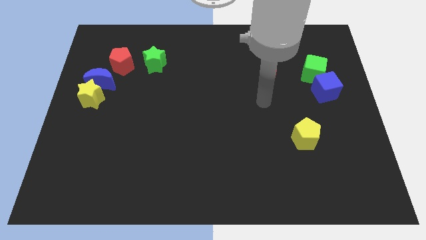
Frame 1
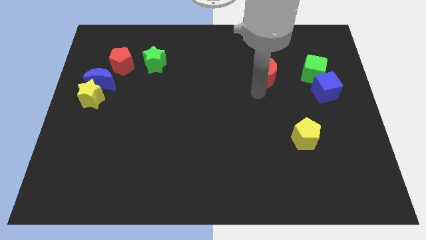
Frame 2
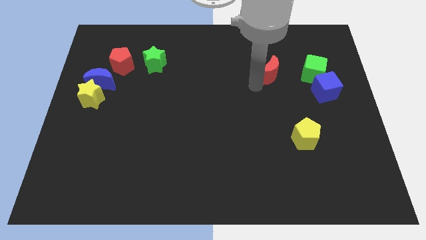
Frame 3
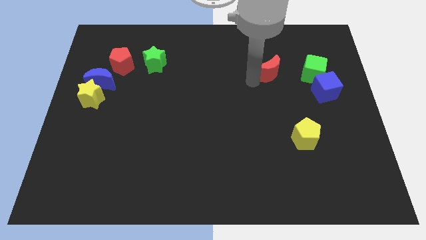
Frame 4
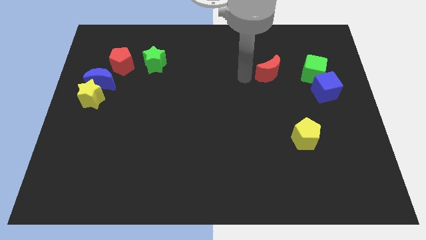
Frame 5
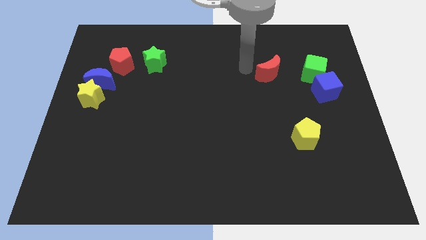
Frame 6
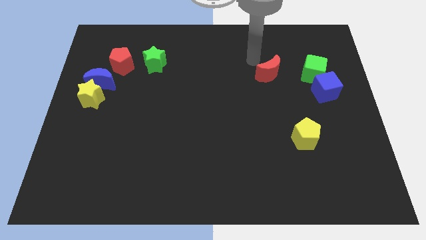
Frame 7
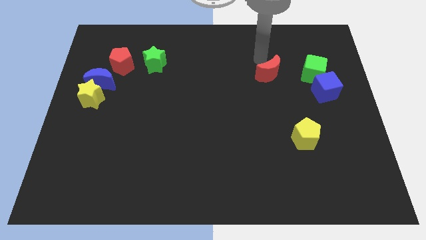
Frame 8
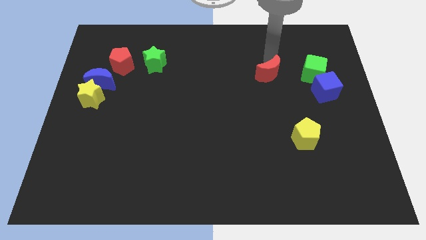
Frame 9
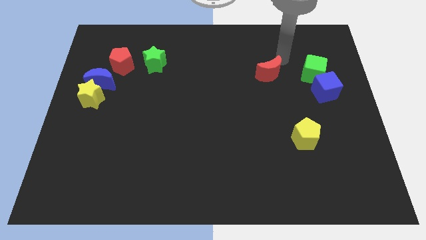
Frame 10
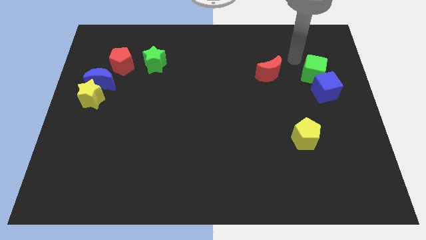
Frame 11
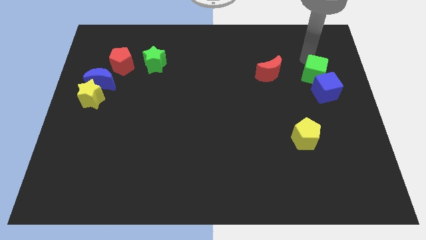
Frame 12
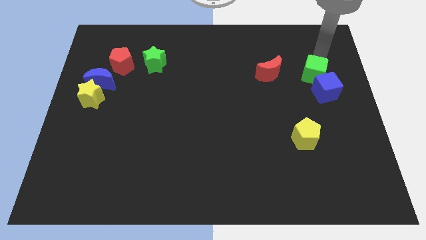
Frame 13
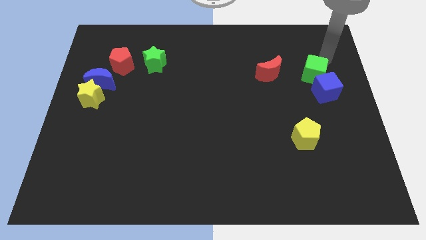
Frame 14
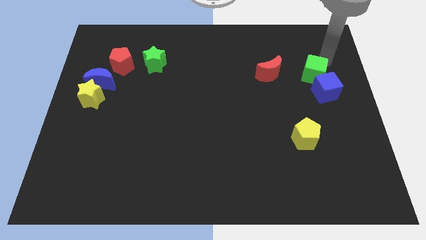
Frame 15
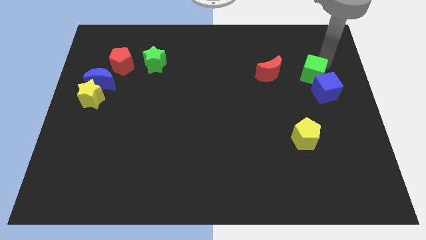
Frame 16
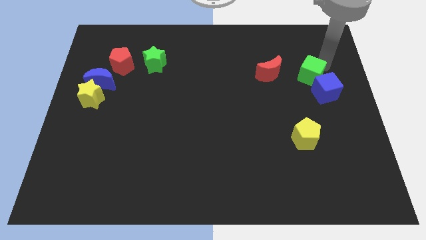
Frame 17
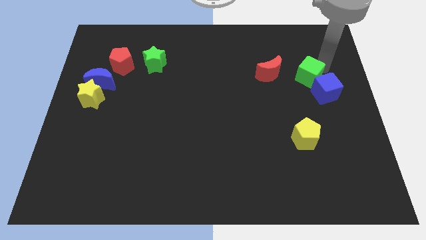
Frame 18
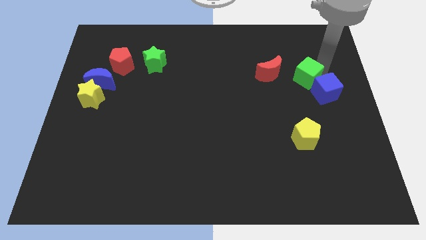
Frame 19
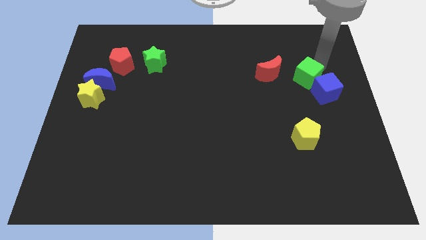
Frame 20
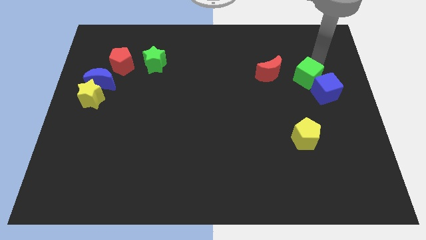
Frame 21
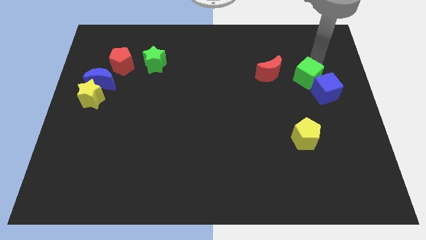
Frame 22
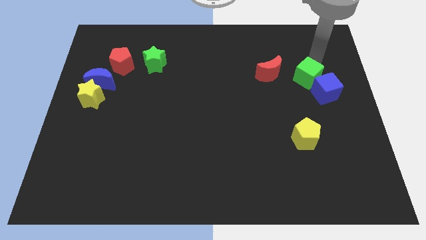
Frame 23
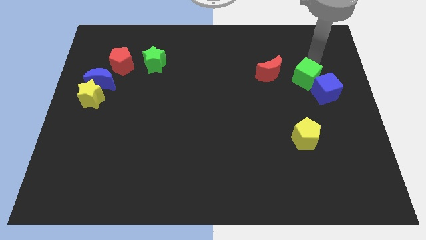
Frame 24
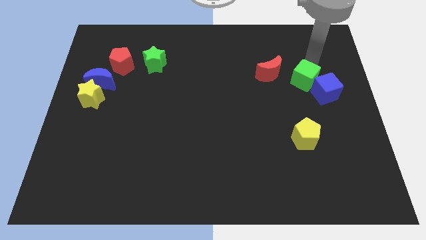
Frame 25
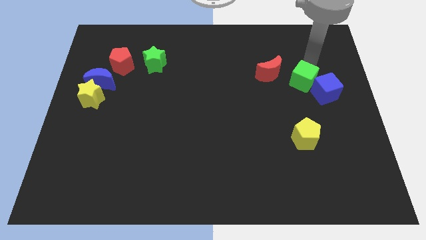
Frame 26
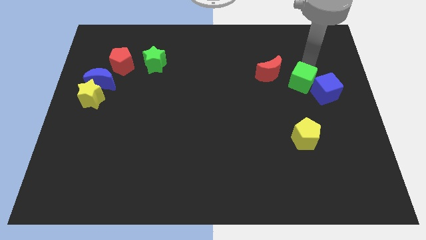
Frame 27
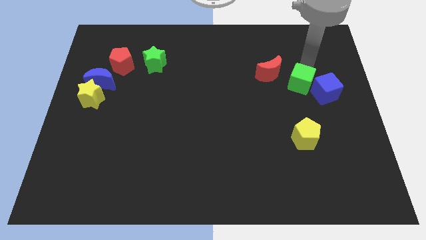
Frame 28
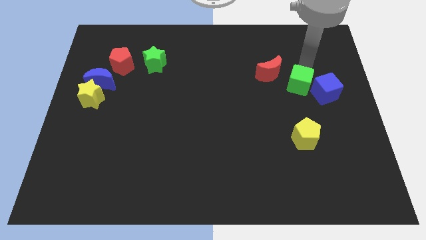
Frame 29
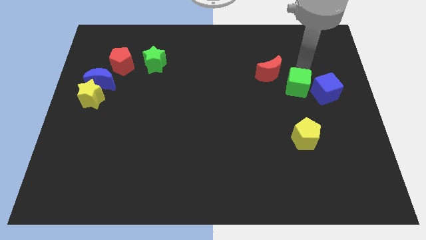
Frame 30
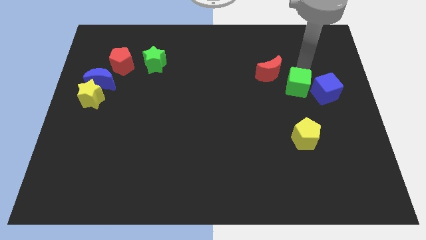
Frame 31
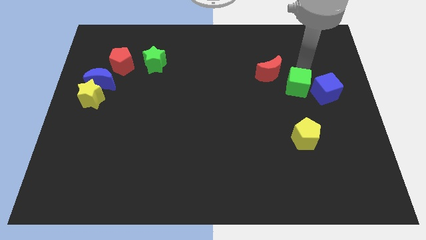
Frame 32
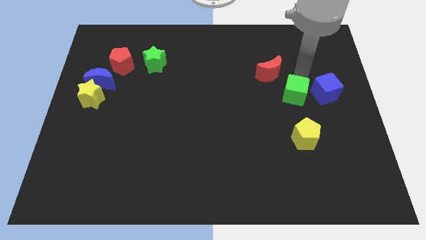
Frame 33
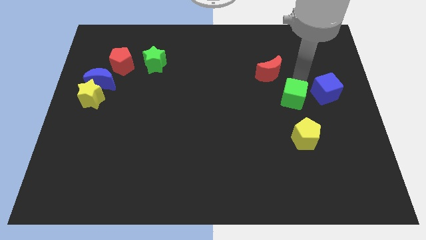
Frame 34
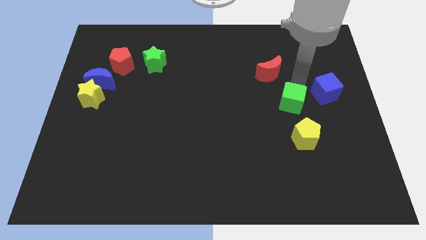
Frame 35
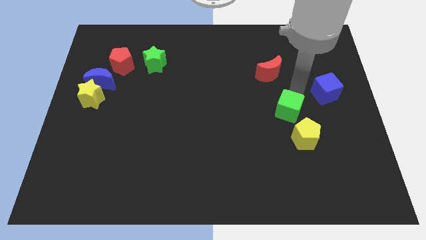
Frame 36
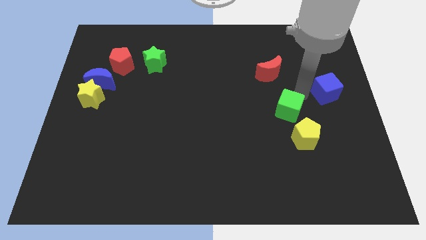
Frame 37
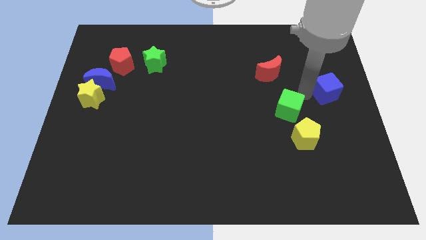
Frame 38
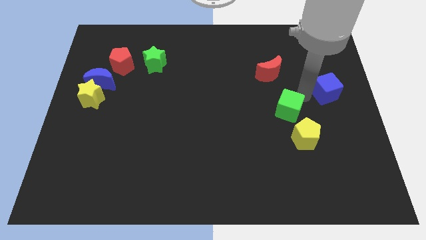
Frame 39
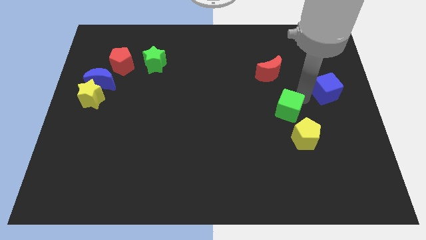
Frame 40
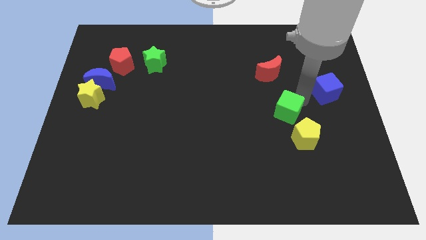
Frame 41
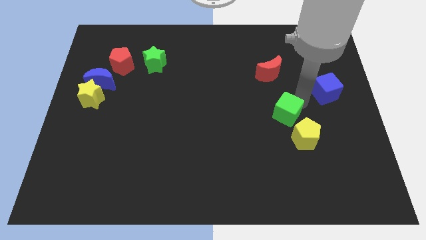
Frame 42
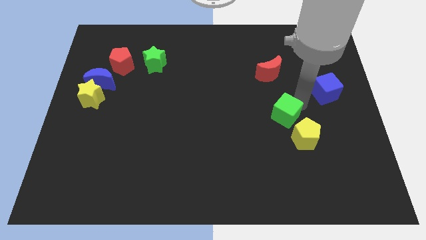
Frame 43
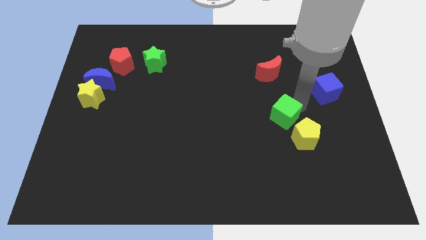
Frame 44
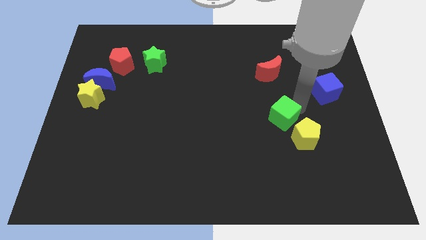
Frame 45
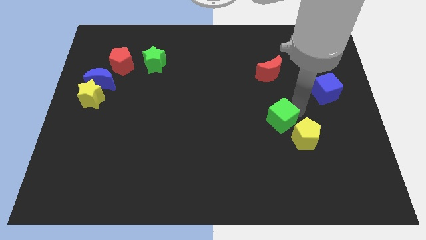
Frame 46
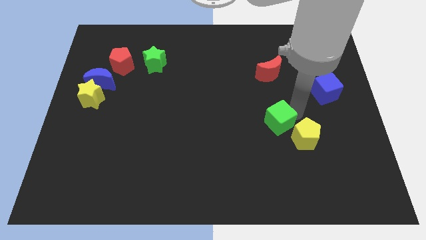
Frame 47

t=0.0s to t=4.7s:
put the green cube to the left of the yellow pentagon

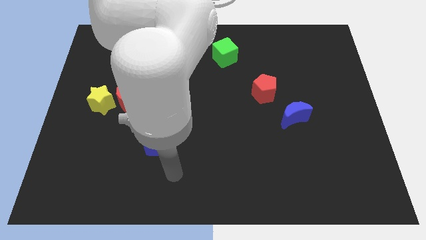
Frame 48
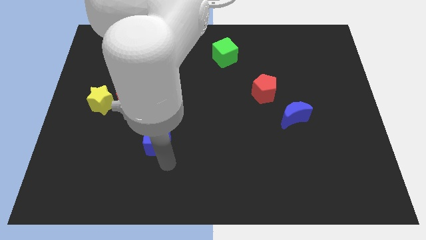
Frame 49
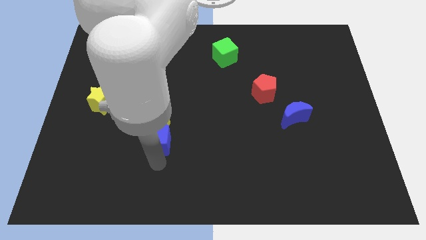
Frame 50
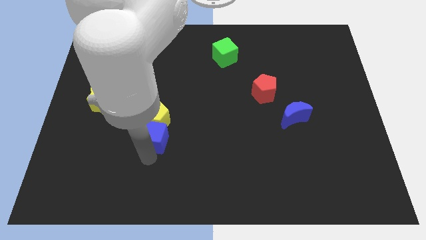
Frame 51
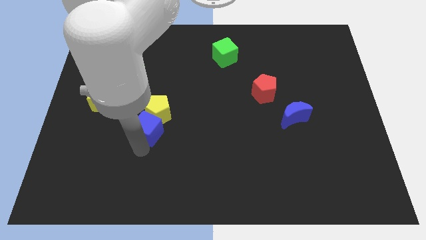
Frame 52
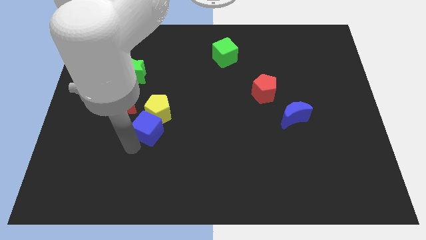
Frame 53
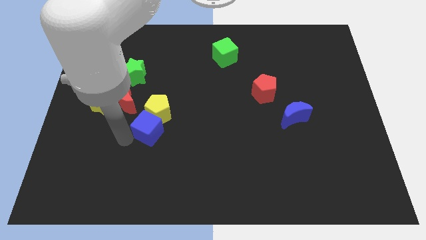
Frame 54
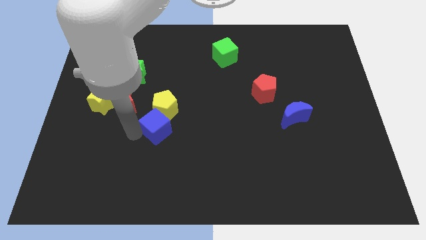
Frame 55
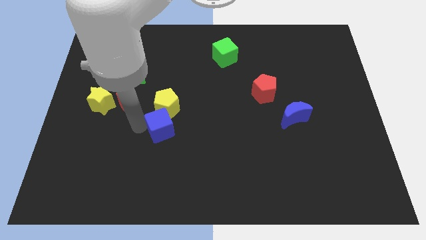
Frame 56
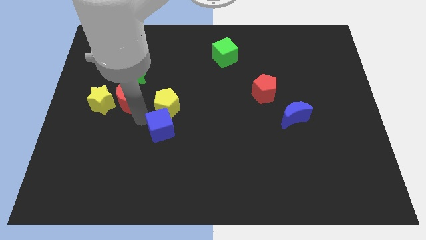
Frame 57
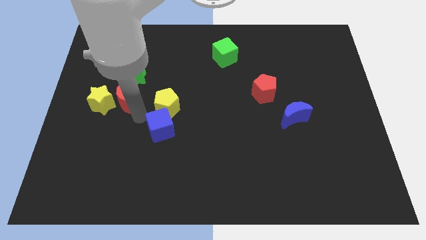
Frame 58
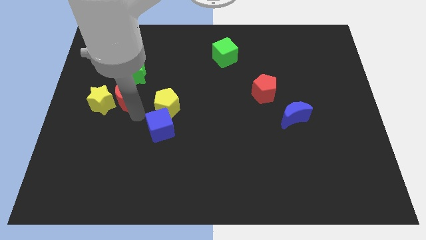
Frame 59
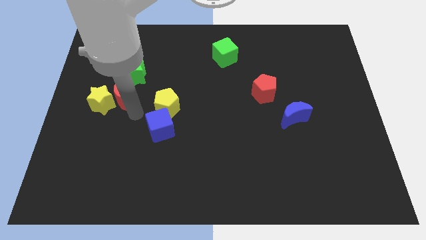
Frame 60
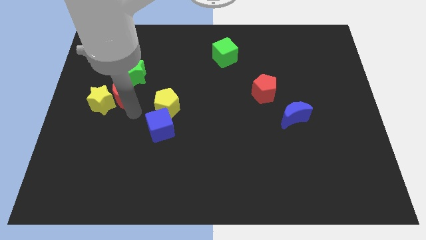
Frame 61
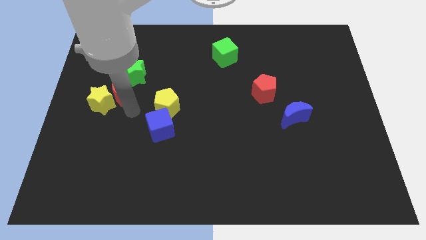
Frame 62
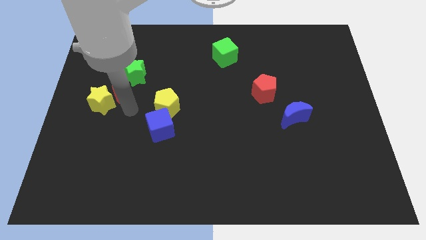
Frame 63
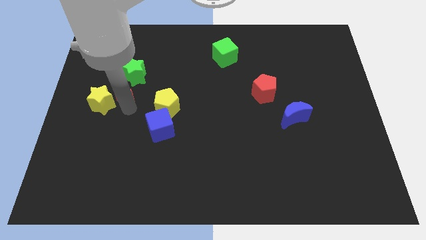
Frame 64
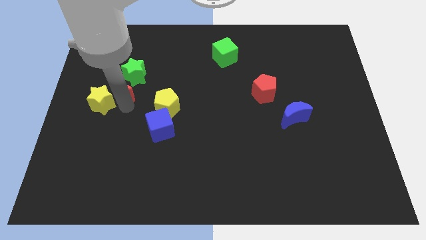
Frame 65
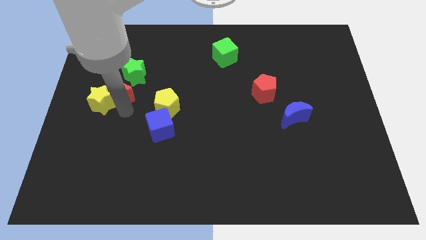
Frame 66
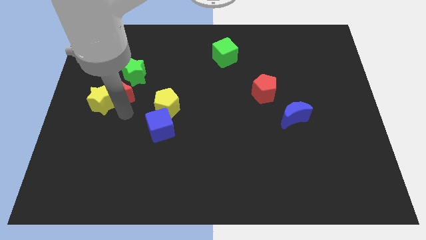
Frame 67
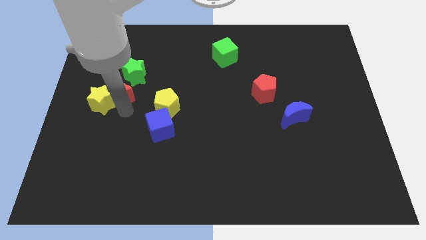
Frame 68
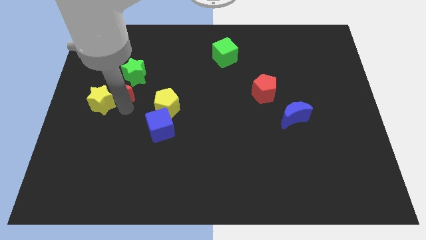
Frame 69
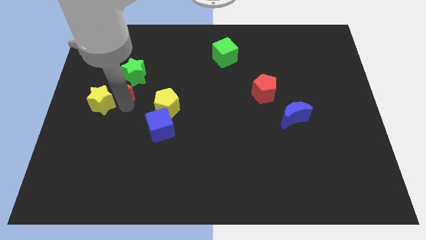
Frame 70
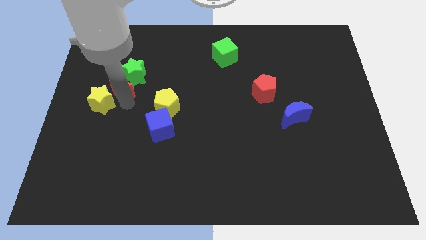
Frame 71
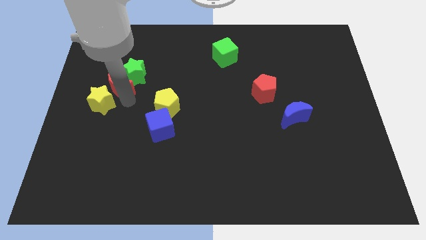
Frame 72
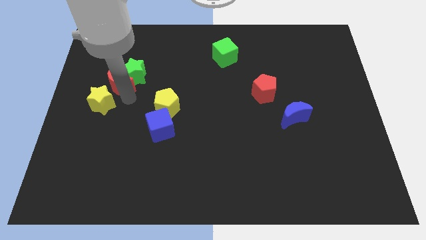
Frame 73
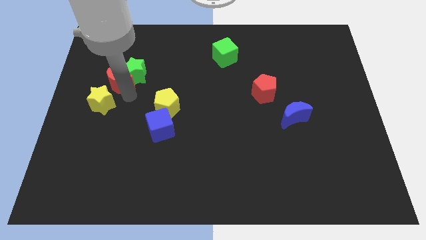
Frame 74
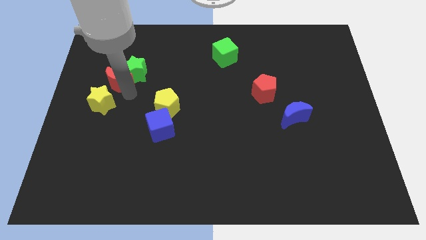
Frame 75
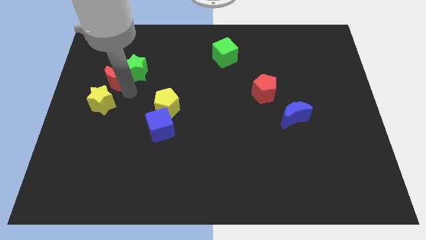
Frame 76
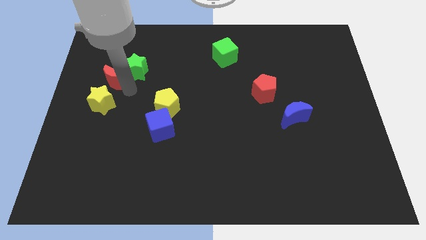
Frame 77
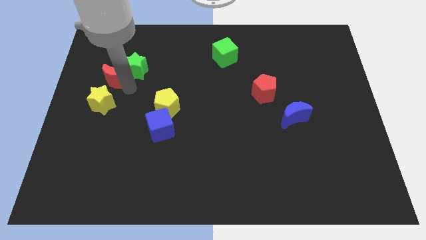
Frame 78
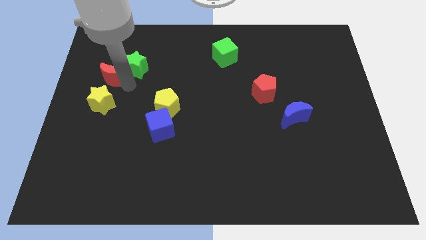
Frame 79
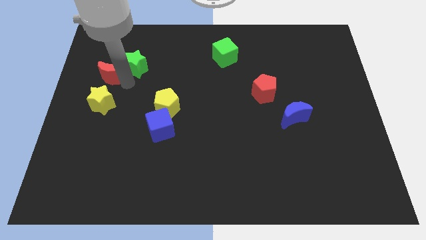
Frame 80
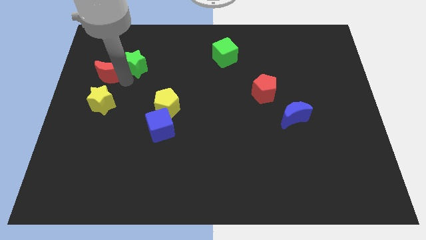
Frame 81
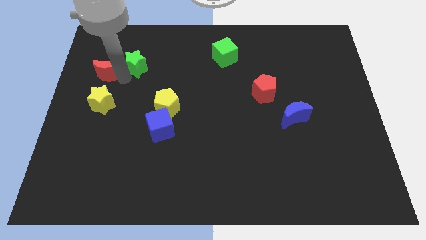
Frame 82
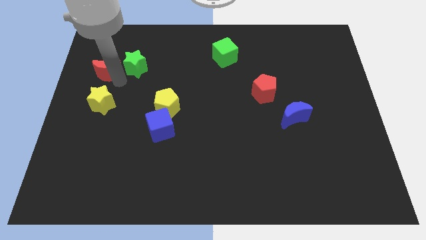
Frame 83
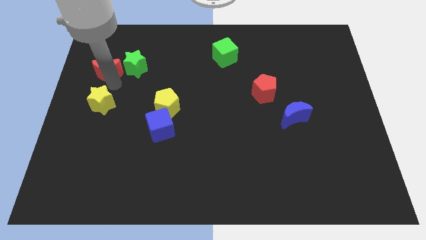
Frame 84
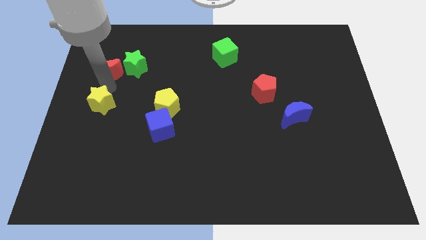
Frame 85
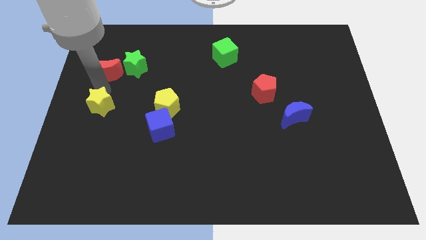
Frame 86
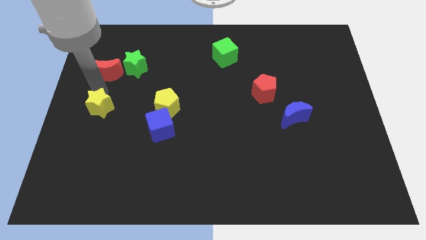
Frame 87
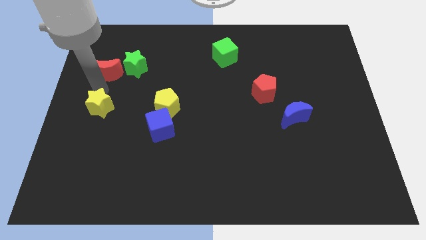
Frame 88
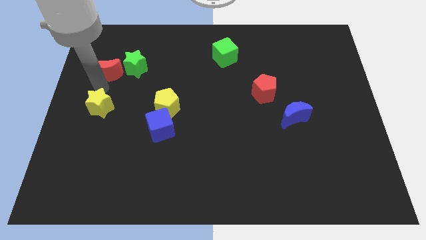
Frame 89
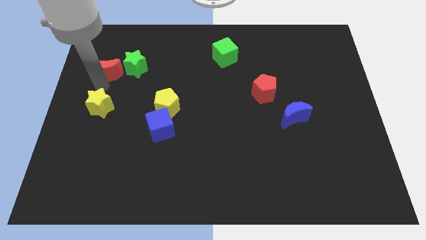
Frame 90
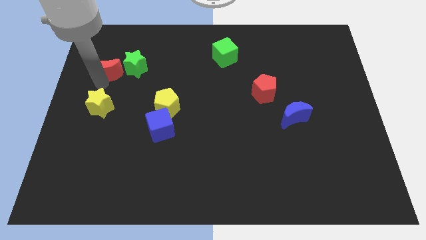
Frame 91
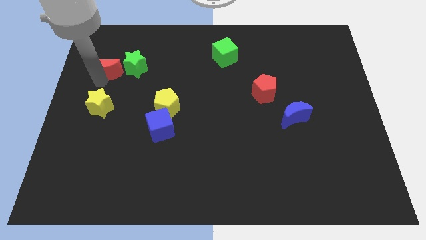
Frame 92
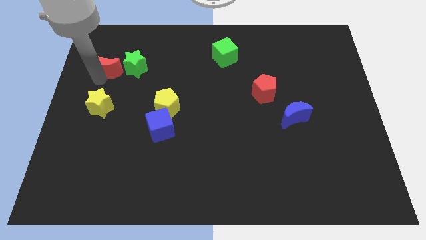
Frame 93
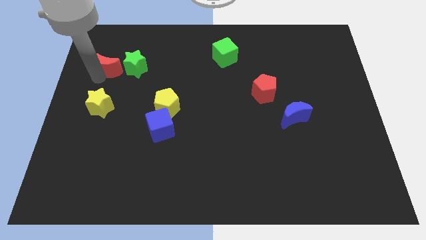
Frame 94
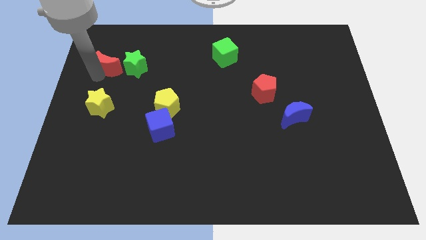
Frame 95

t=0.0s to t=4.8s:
move the red moon to the top left of the green star
